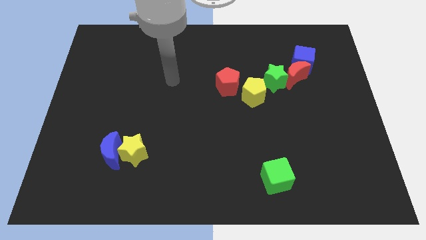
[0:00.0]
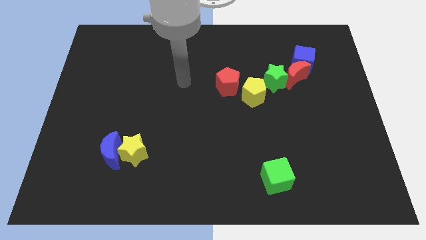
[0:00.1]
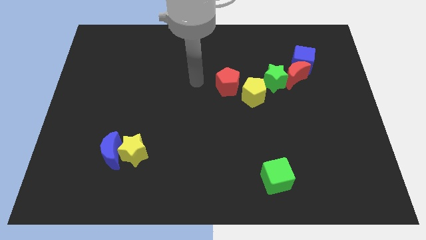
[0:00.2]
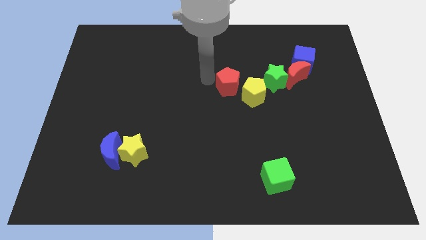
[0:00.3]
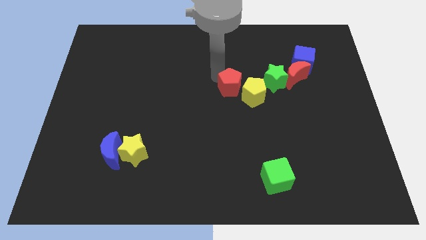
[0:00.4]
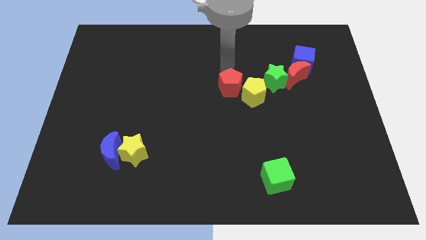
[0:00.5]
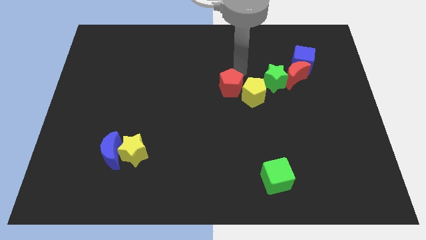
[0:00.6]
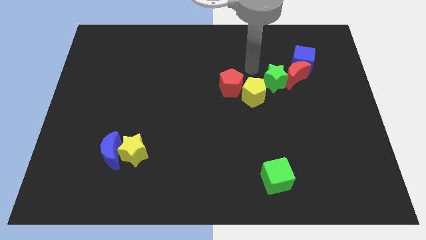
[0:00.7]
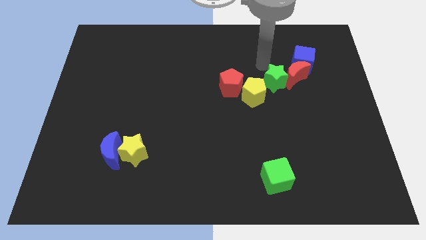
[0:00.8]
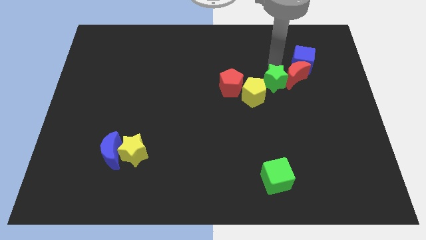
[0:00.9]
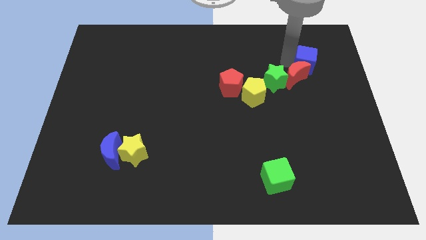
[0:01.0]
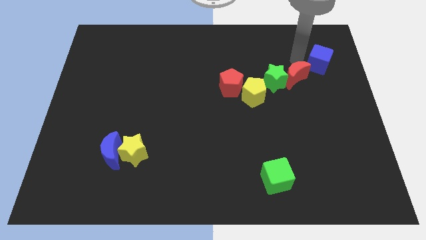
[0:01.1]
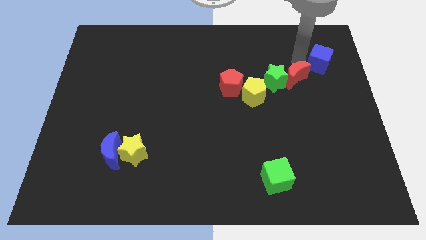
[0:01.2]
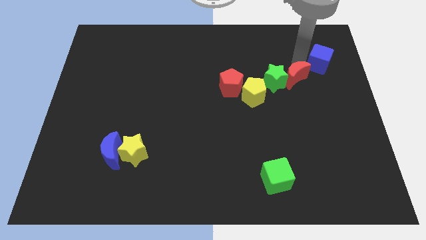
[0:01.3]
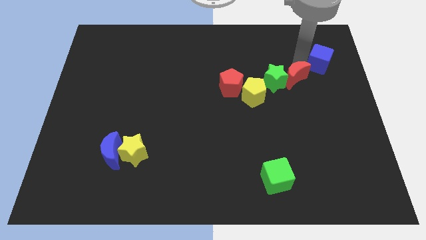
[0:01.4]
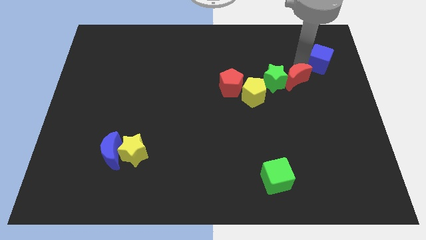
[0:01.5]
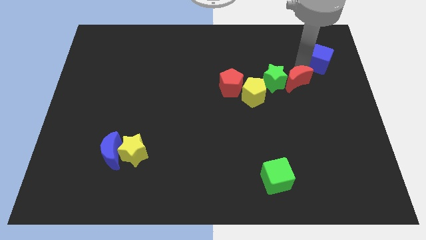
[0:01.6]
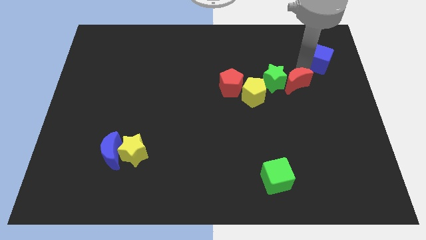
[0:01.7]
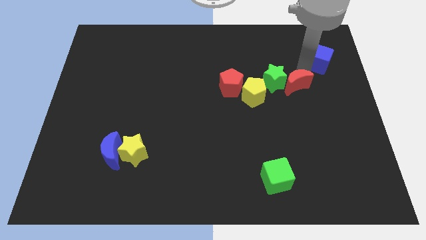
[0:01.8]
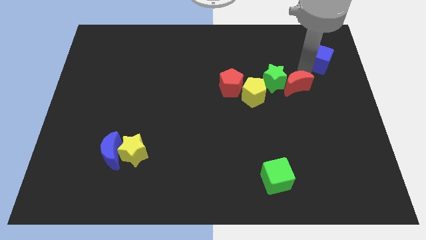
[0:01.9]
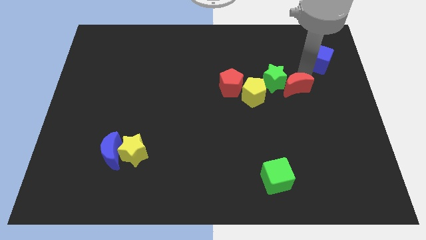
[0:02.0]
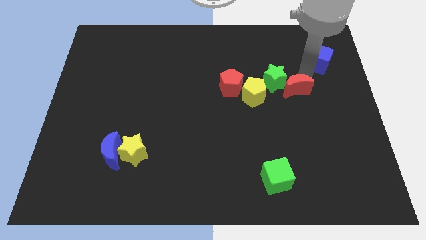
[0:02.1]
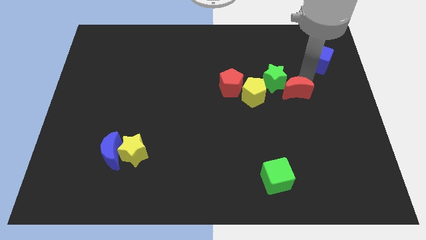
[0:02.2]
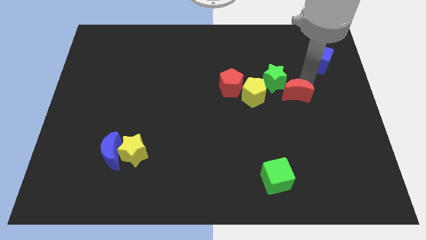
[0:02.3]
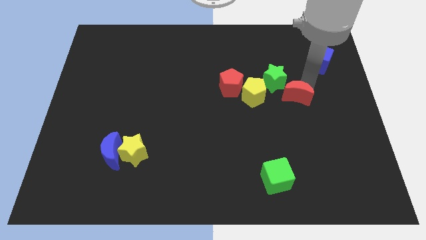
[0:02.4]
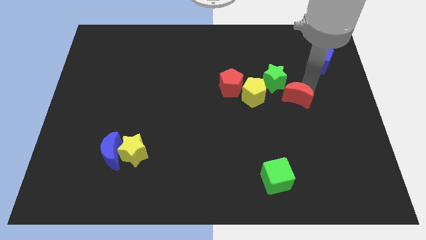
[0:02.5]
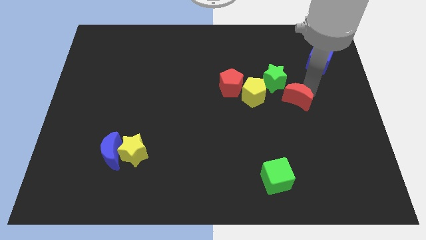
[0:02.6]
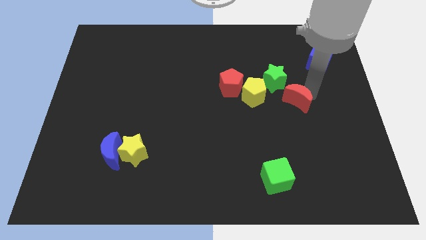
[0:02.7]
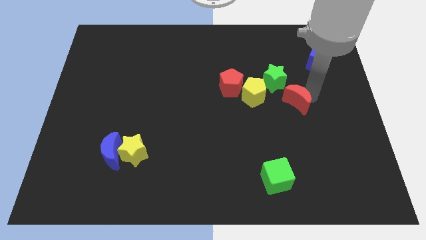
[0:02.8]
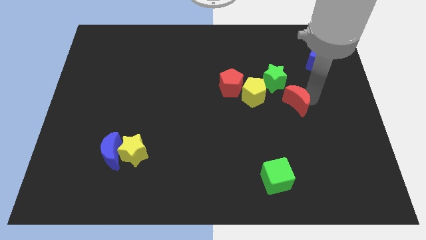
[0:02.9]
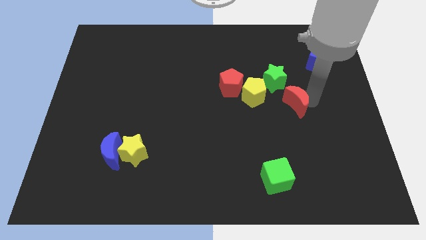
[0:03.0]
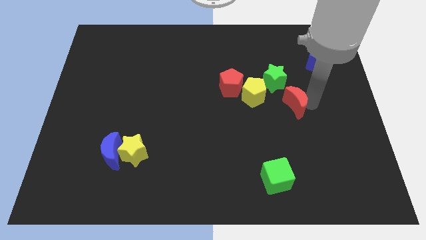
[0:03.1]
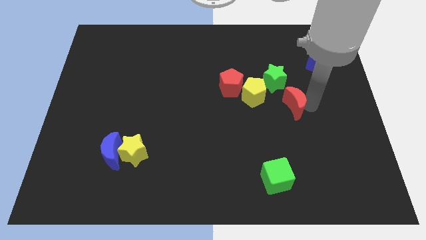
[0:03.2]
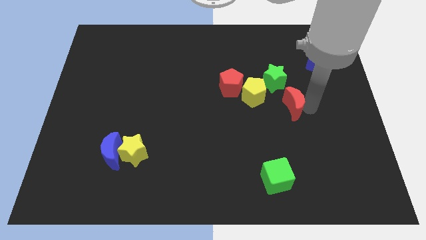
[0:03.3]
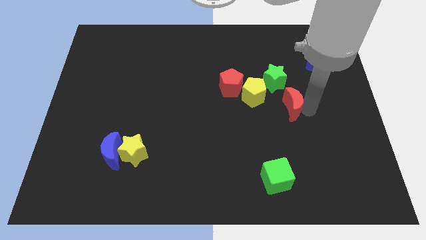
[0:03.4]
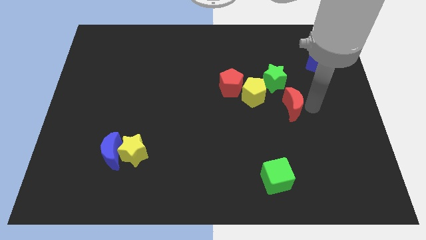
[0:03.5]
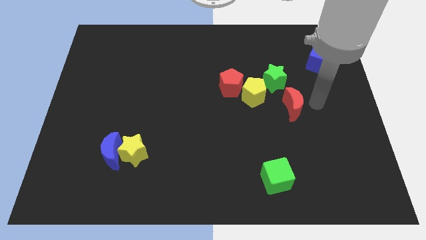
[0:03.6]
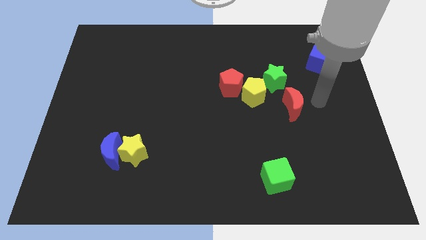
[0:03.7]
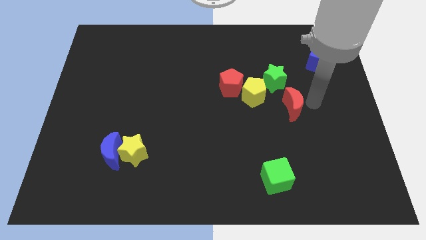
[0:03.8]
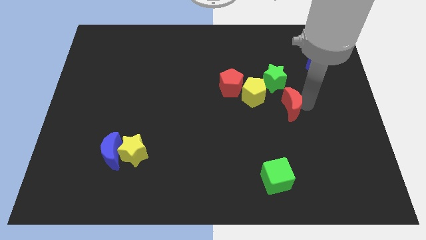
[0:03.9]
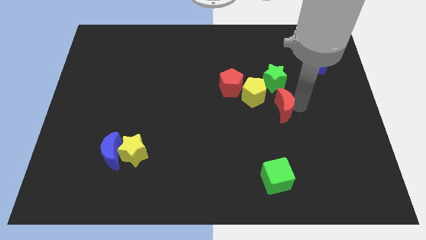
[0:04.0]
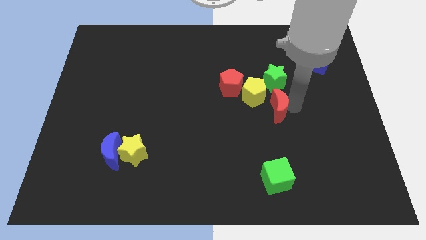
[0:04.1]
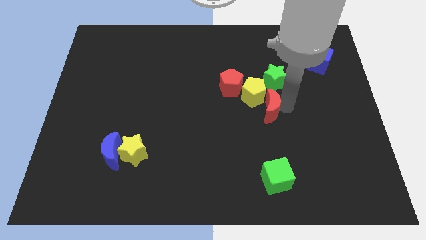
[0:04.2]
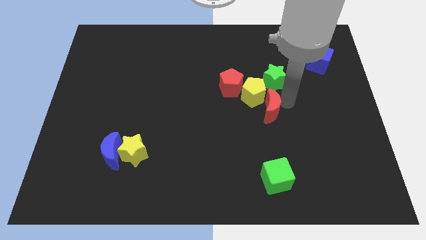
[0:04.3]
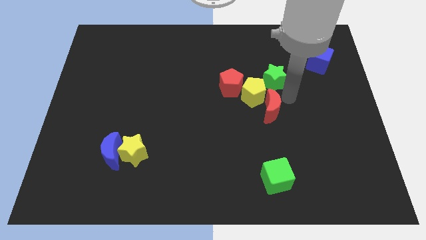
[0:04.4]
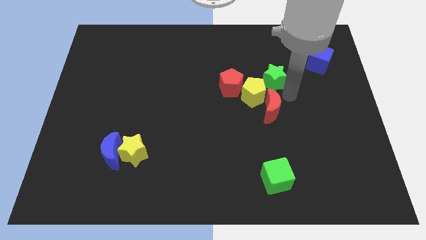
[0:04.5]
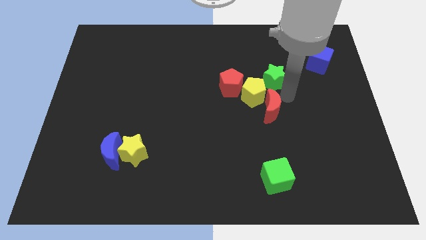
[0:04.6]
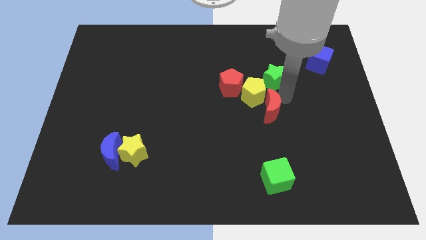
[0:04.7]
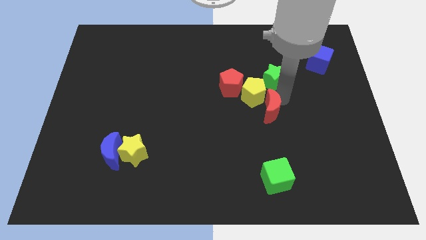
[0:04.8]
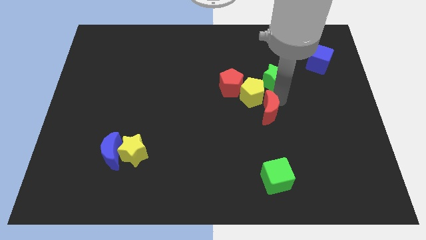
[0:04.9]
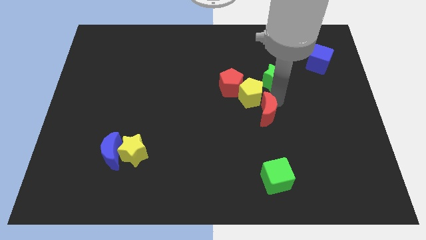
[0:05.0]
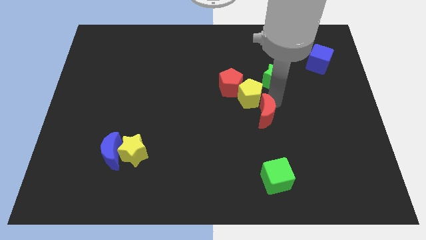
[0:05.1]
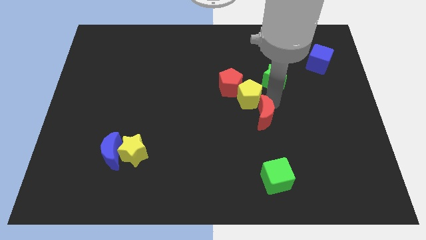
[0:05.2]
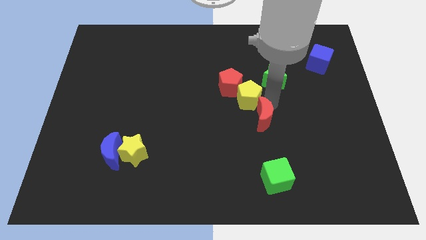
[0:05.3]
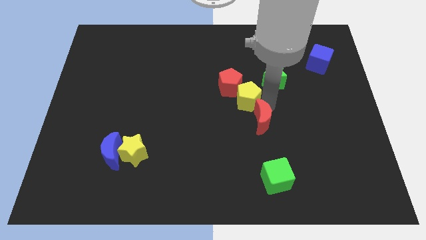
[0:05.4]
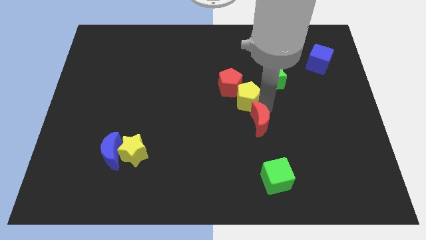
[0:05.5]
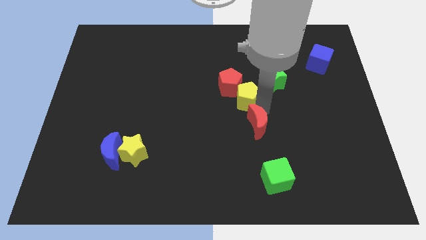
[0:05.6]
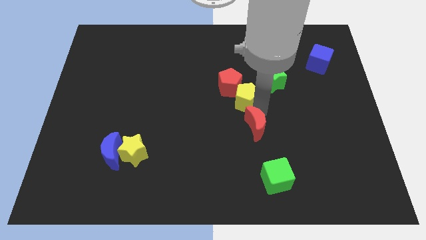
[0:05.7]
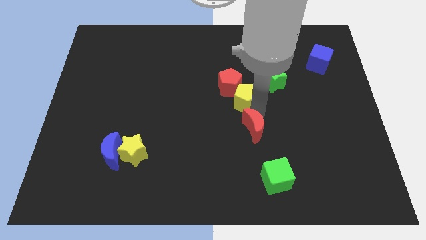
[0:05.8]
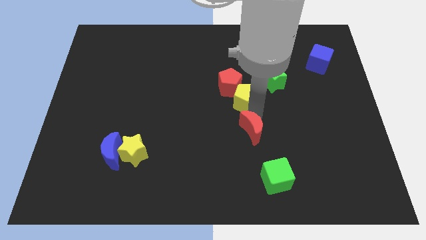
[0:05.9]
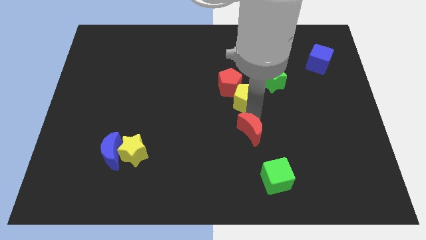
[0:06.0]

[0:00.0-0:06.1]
slide the red moon downwards and to the left

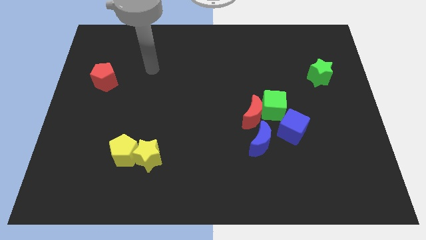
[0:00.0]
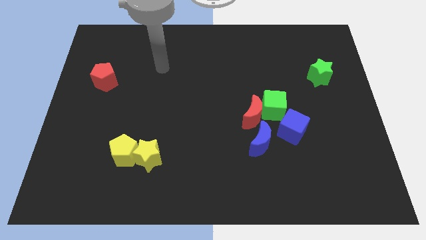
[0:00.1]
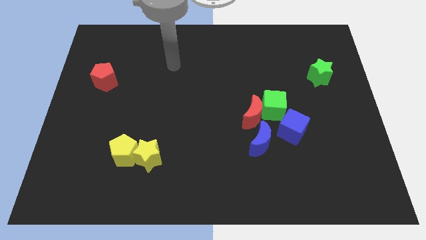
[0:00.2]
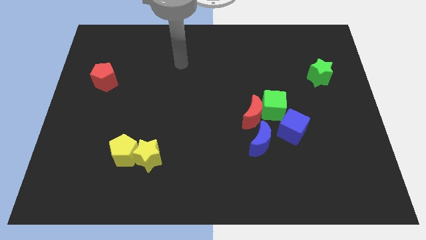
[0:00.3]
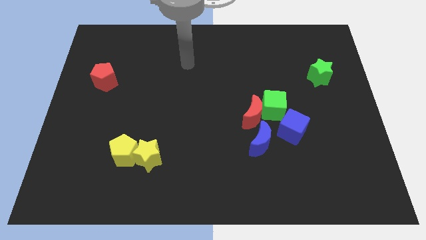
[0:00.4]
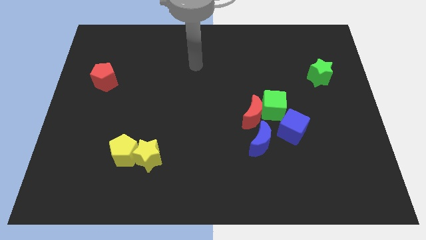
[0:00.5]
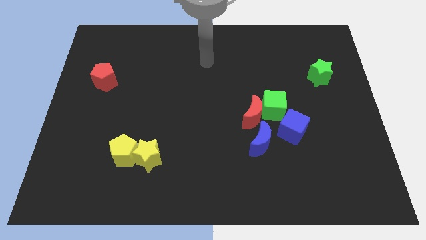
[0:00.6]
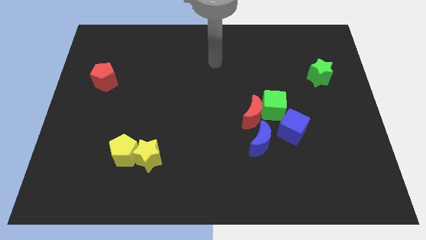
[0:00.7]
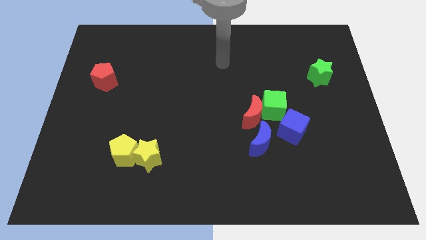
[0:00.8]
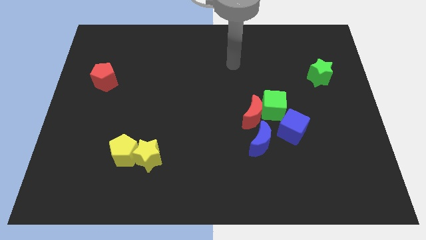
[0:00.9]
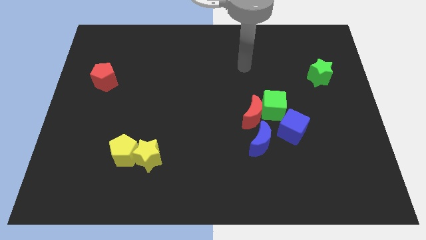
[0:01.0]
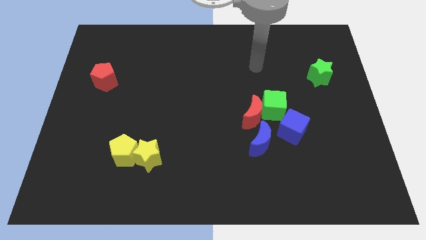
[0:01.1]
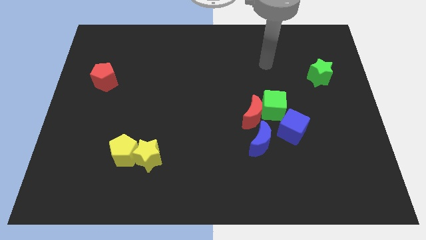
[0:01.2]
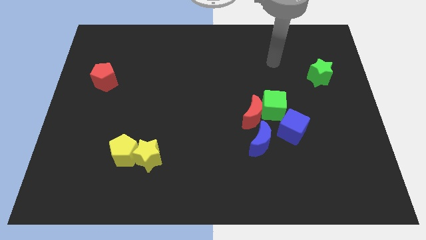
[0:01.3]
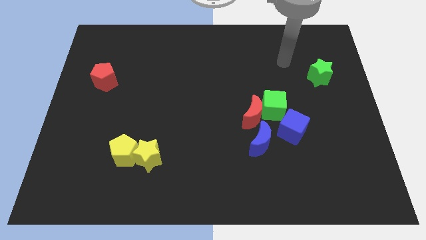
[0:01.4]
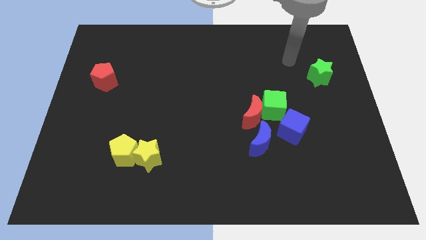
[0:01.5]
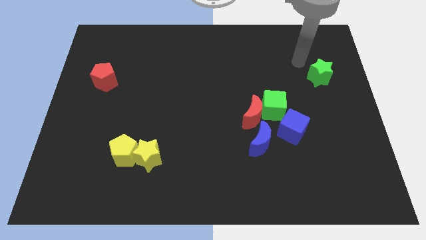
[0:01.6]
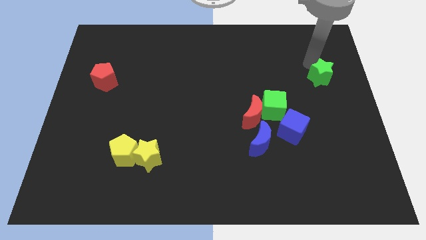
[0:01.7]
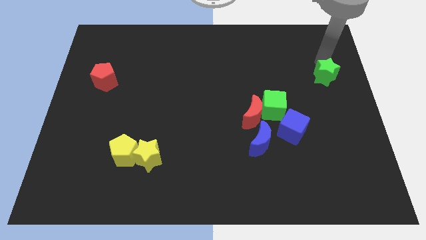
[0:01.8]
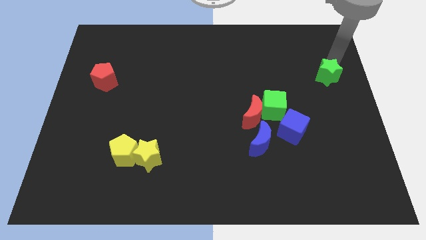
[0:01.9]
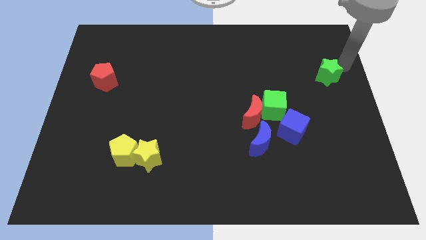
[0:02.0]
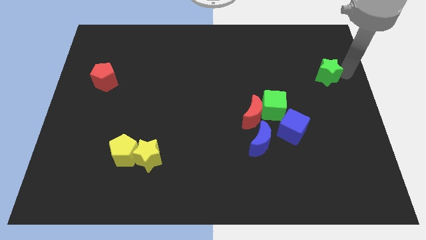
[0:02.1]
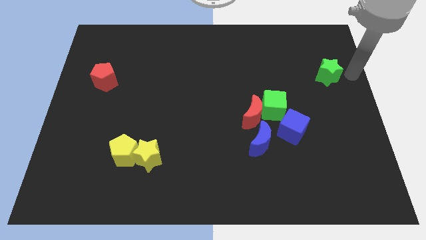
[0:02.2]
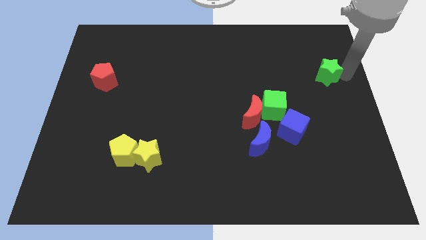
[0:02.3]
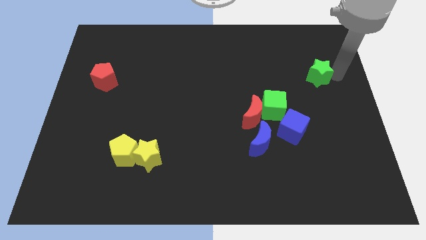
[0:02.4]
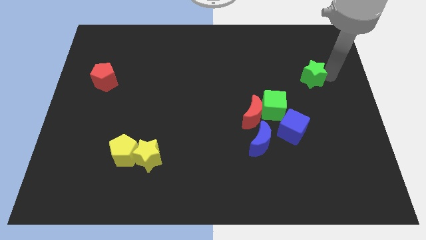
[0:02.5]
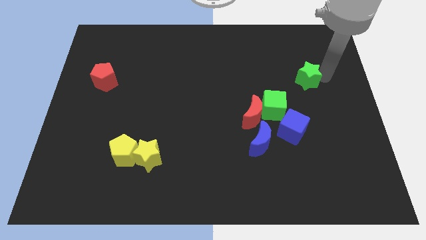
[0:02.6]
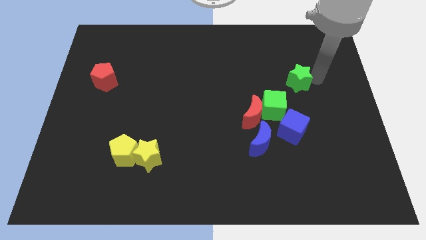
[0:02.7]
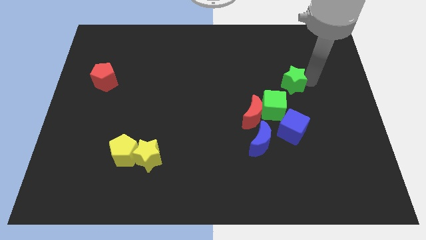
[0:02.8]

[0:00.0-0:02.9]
move the green star slightly left
